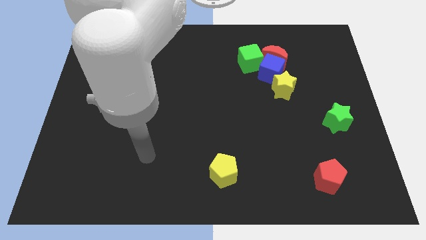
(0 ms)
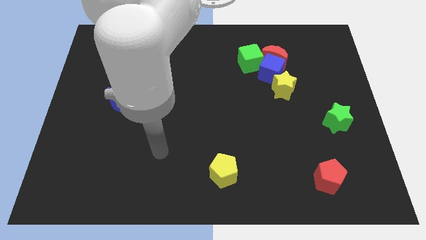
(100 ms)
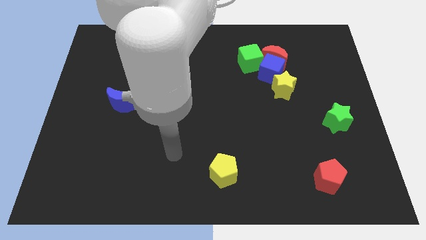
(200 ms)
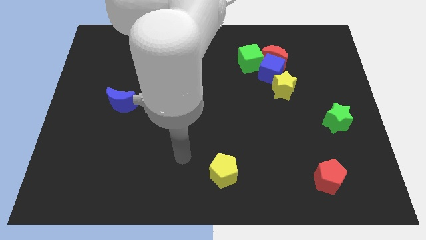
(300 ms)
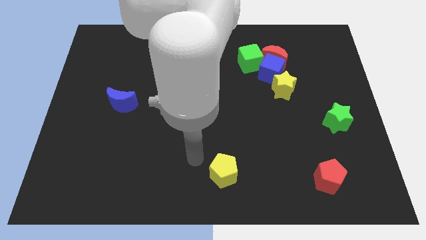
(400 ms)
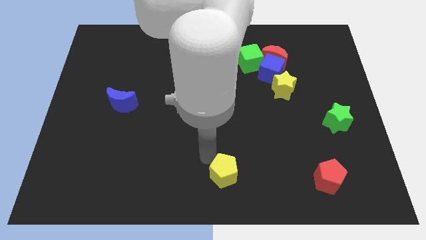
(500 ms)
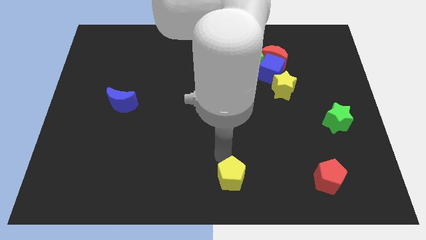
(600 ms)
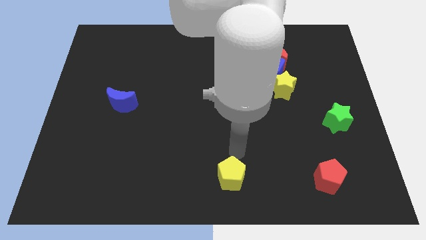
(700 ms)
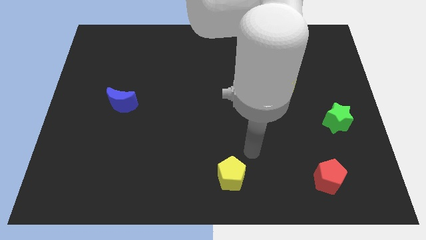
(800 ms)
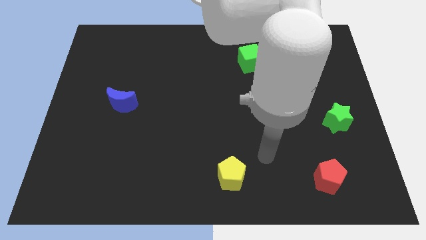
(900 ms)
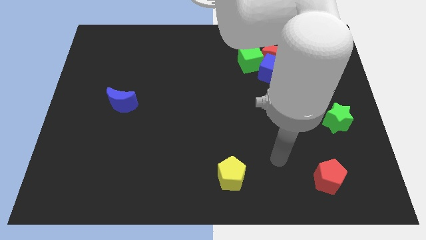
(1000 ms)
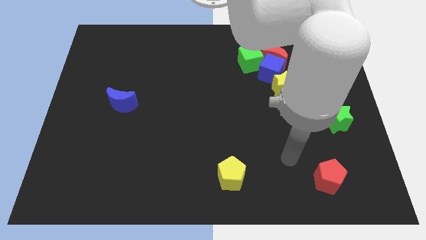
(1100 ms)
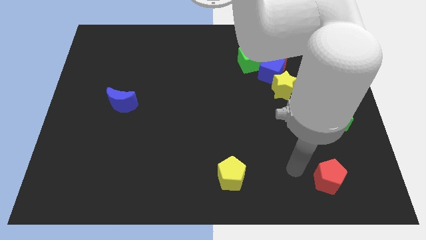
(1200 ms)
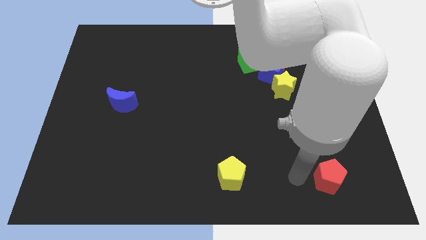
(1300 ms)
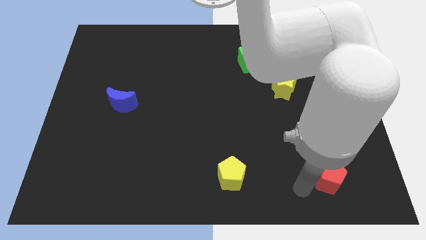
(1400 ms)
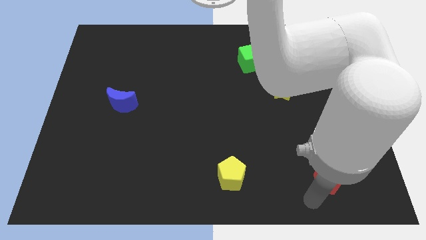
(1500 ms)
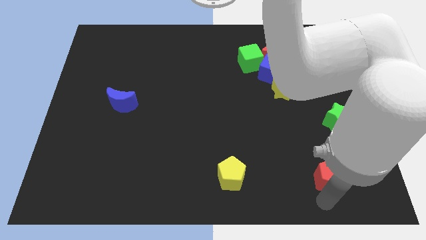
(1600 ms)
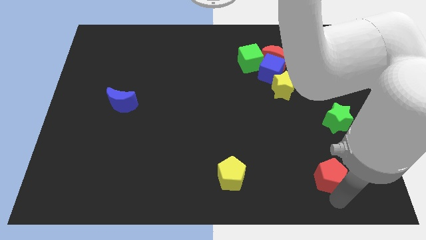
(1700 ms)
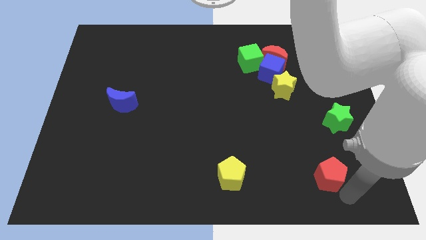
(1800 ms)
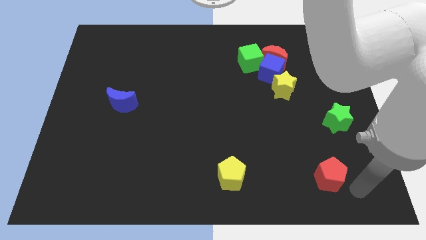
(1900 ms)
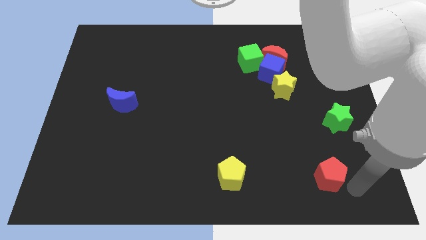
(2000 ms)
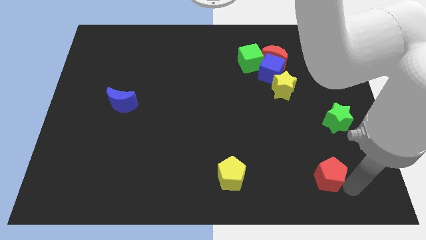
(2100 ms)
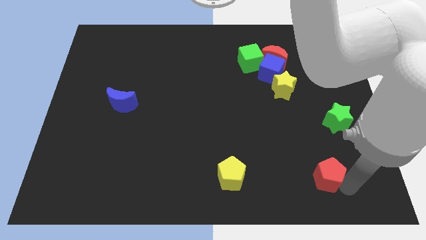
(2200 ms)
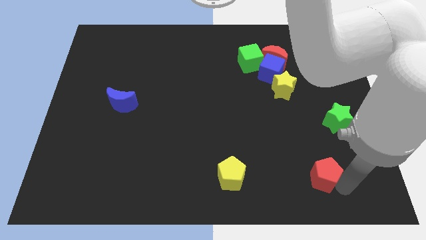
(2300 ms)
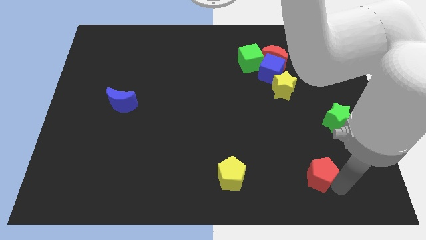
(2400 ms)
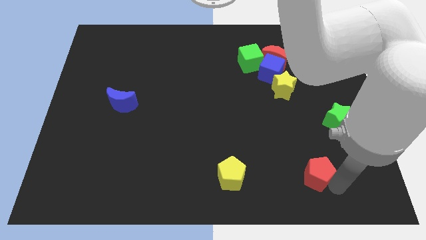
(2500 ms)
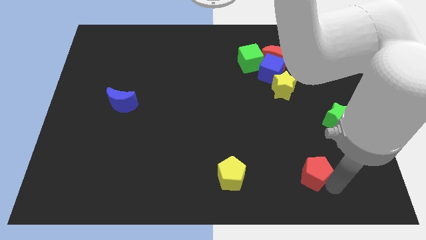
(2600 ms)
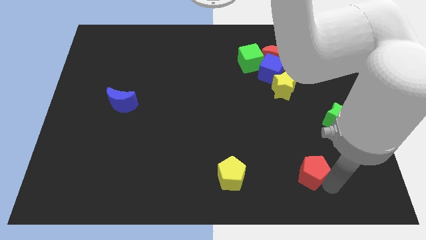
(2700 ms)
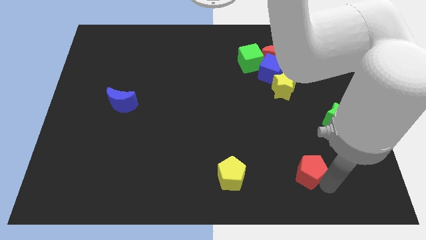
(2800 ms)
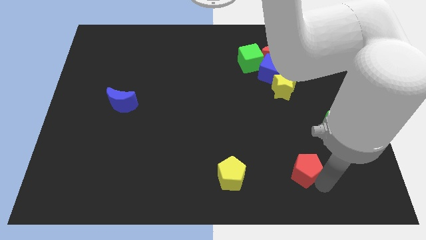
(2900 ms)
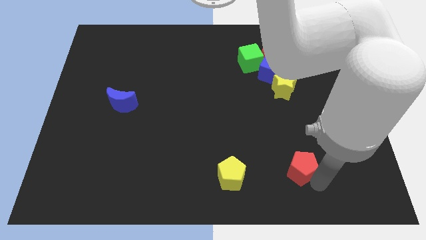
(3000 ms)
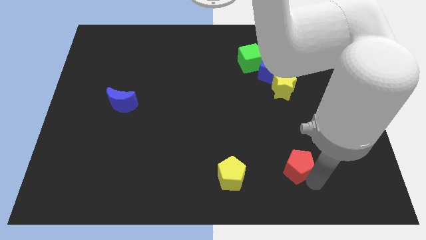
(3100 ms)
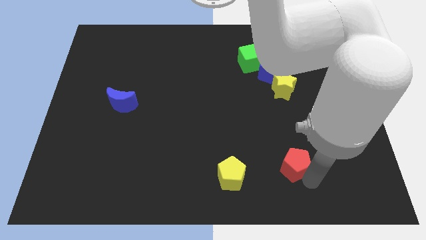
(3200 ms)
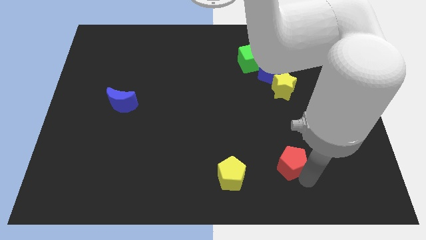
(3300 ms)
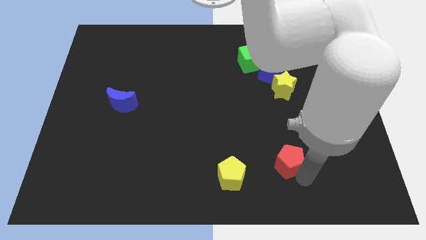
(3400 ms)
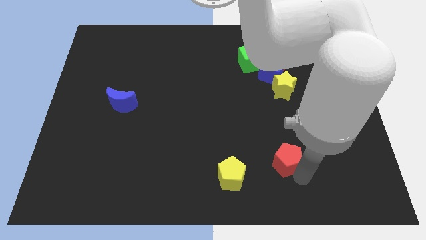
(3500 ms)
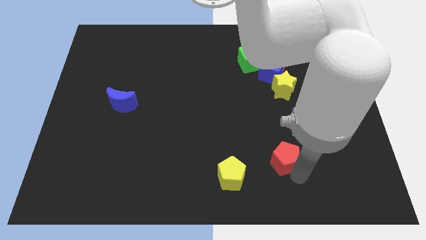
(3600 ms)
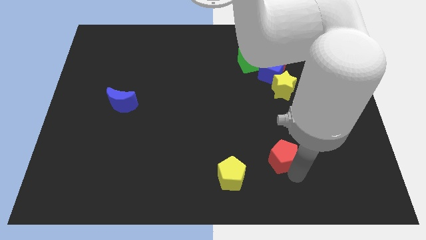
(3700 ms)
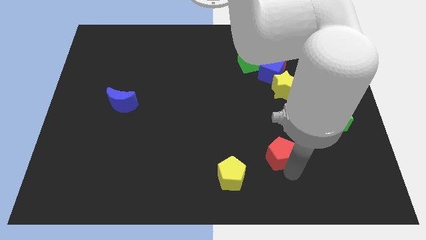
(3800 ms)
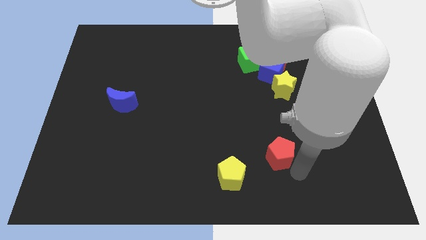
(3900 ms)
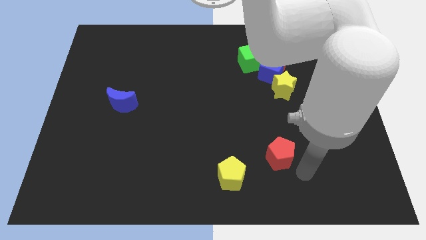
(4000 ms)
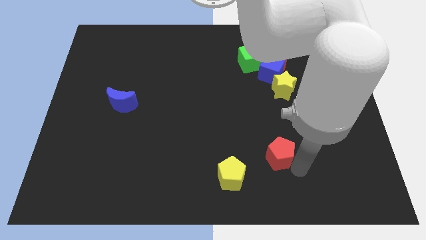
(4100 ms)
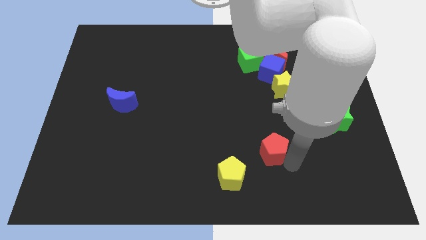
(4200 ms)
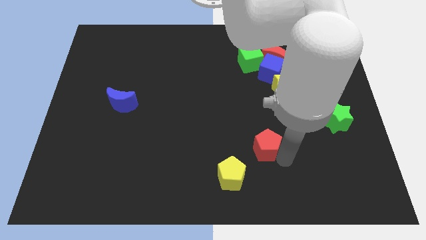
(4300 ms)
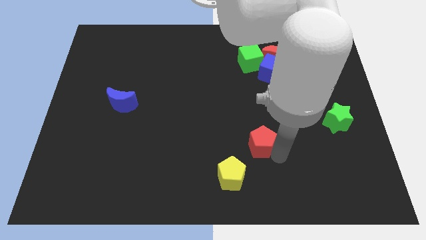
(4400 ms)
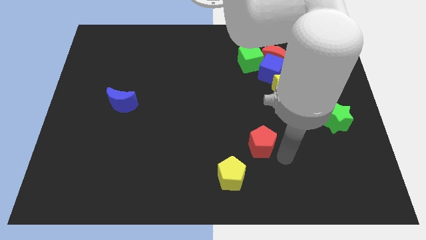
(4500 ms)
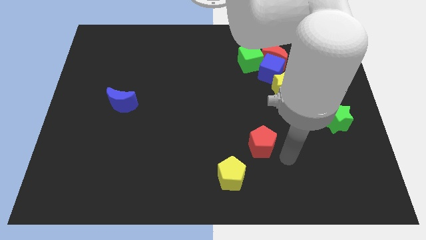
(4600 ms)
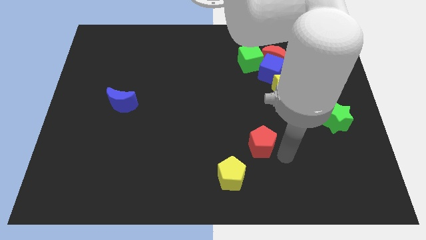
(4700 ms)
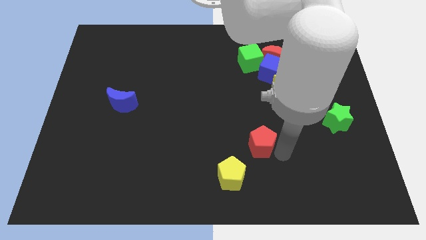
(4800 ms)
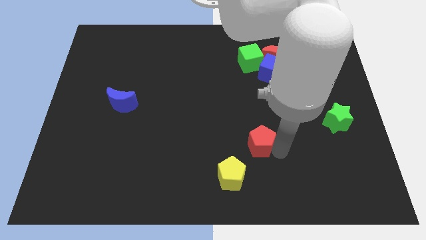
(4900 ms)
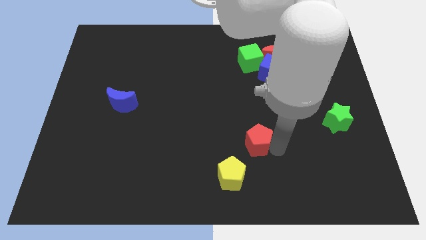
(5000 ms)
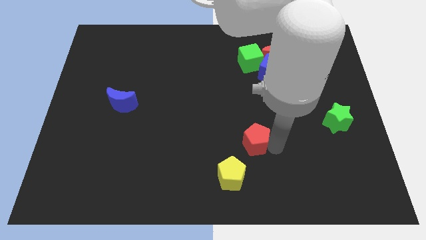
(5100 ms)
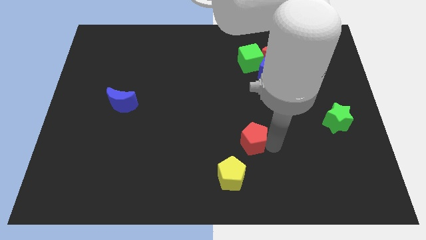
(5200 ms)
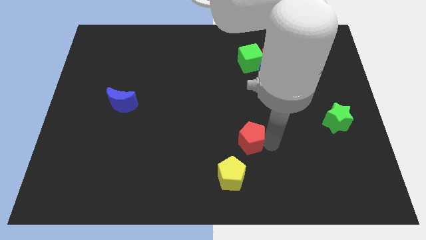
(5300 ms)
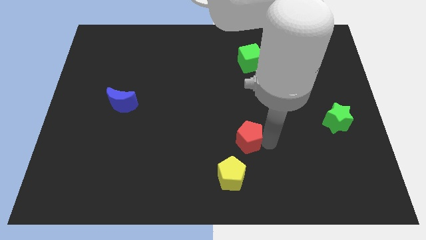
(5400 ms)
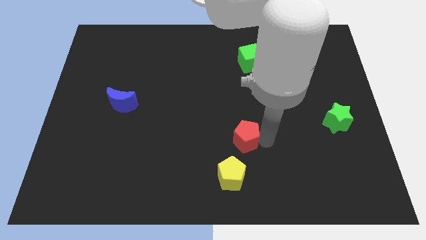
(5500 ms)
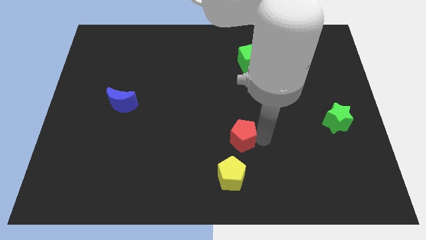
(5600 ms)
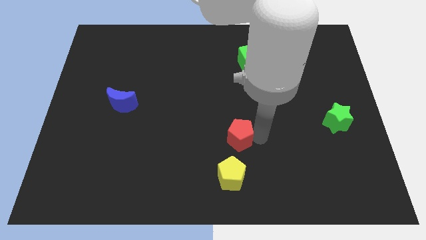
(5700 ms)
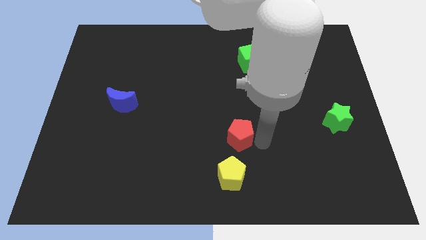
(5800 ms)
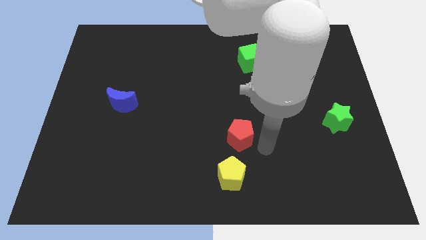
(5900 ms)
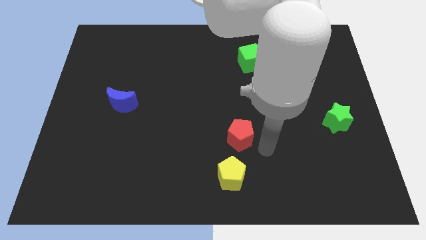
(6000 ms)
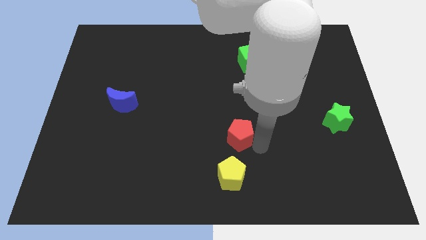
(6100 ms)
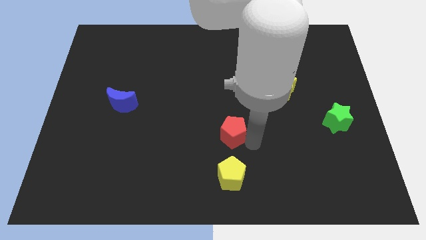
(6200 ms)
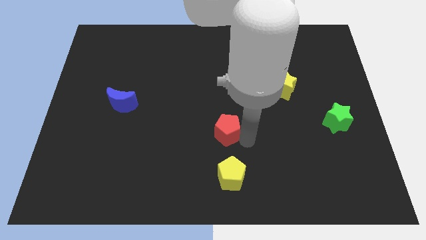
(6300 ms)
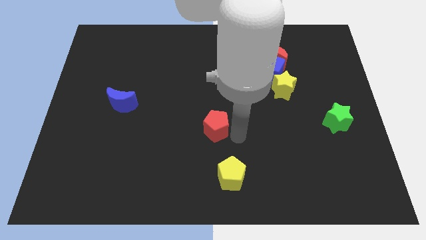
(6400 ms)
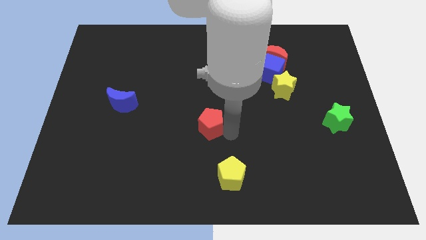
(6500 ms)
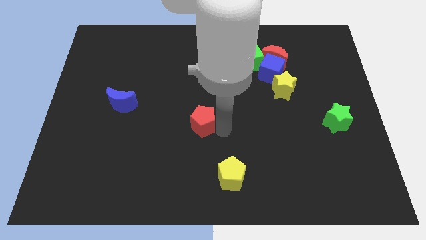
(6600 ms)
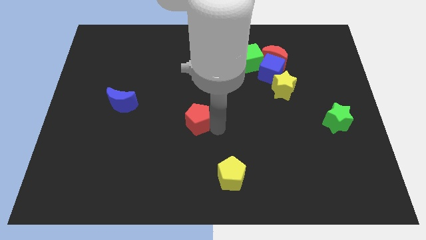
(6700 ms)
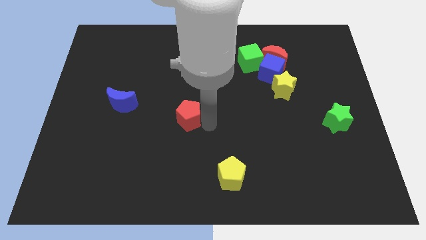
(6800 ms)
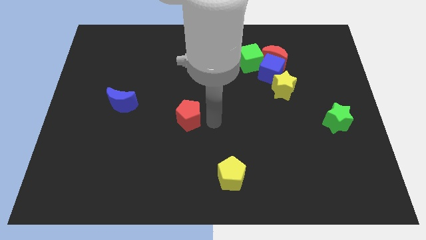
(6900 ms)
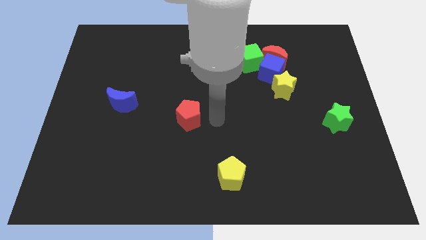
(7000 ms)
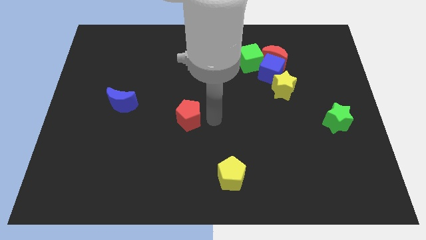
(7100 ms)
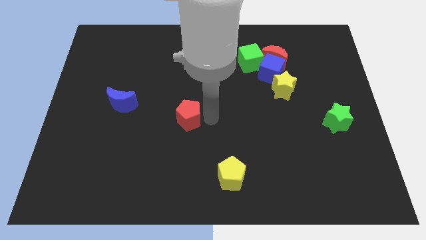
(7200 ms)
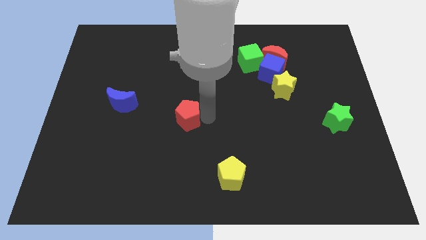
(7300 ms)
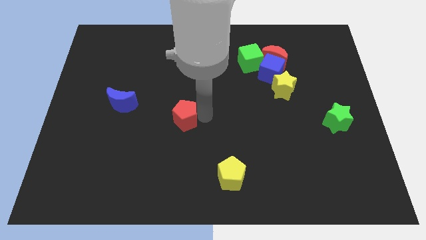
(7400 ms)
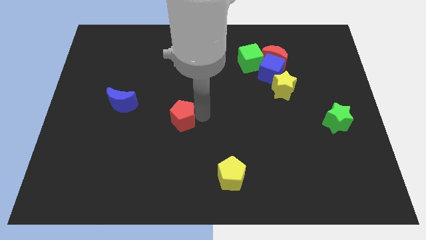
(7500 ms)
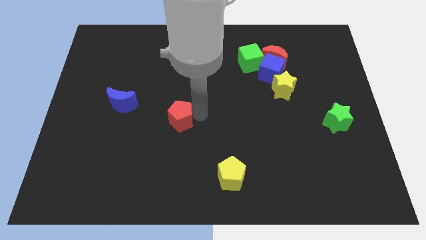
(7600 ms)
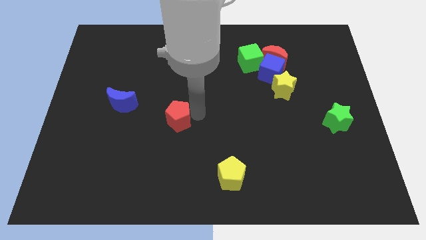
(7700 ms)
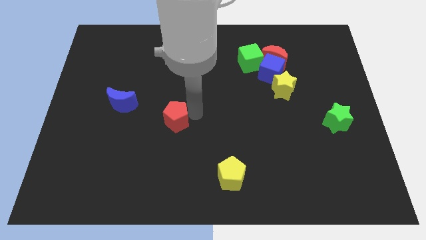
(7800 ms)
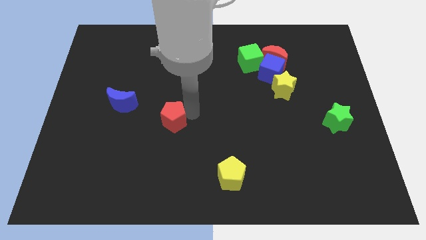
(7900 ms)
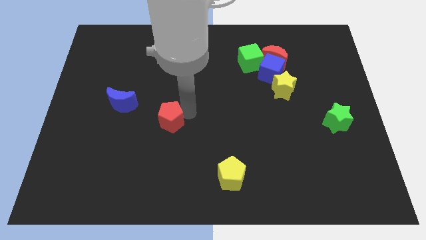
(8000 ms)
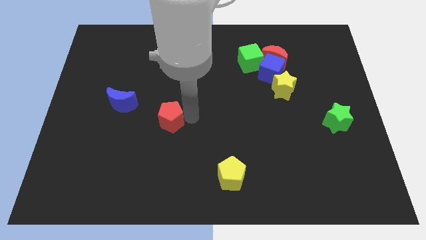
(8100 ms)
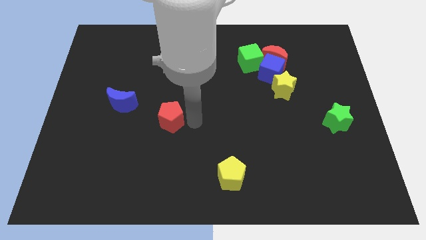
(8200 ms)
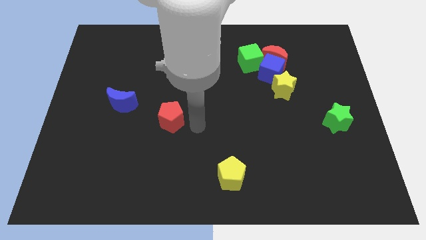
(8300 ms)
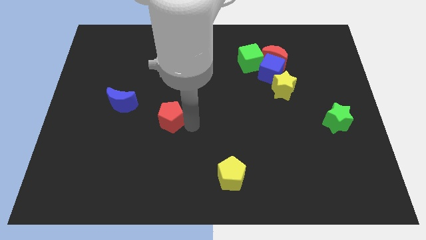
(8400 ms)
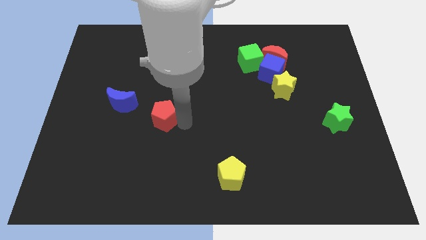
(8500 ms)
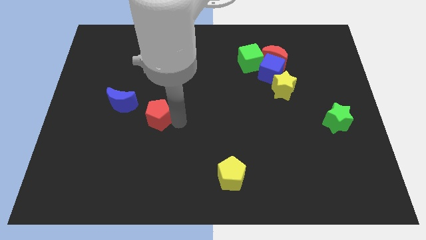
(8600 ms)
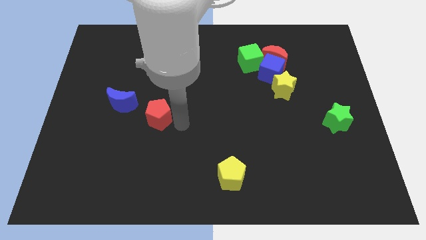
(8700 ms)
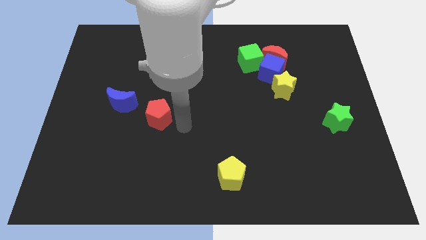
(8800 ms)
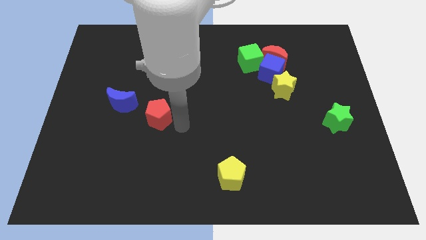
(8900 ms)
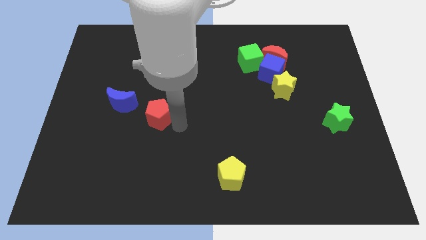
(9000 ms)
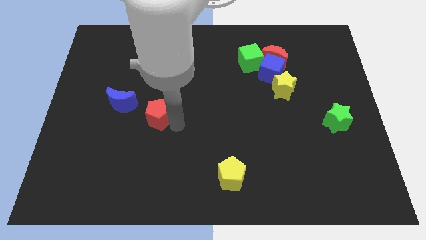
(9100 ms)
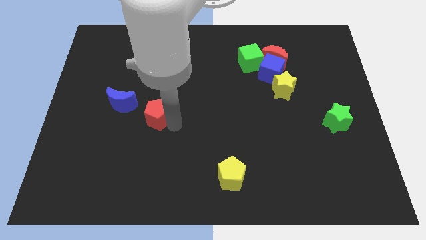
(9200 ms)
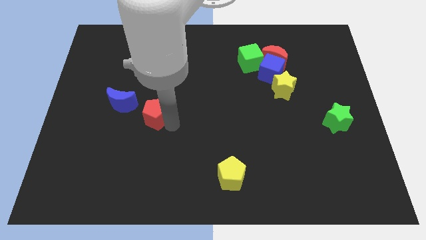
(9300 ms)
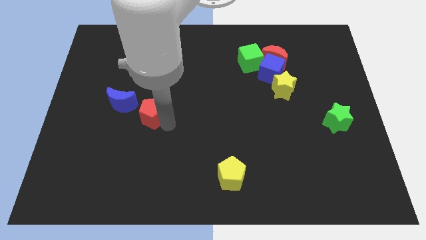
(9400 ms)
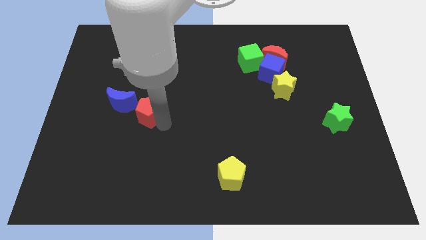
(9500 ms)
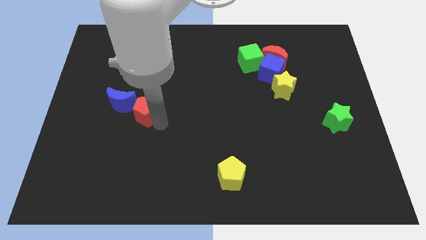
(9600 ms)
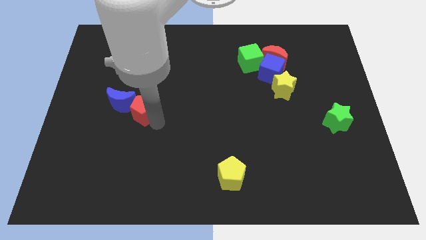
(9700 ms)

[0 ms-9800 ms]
push the red pentagon close to the blue moon
